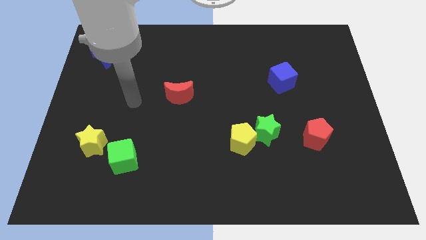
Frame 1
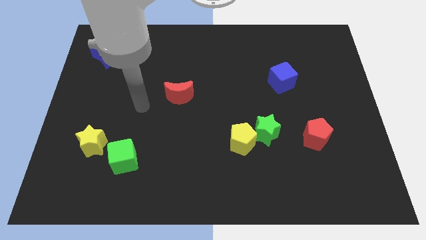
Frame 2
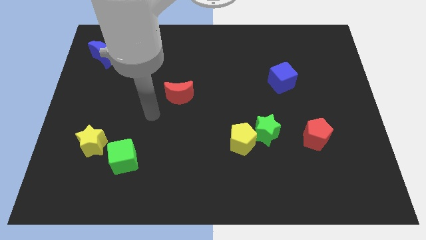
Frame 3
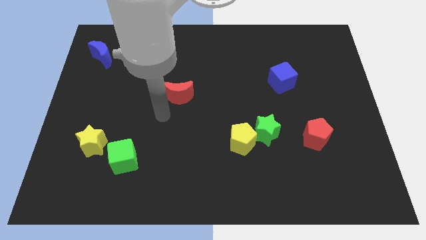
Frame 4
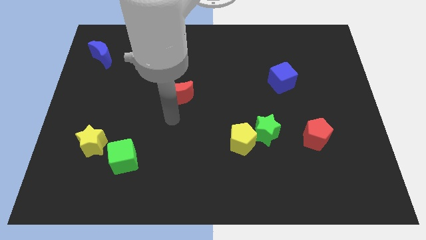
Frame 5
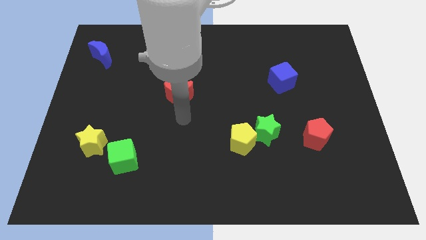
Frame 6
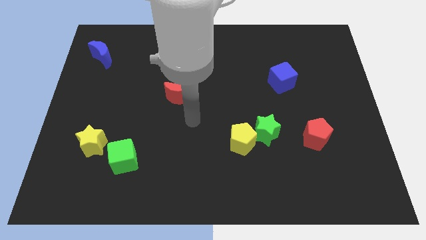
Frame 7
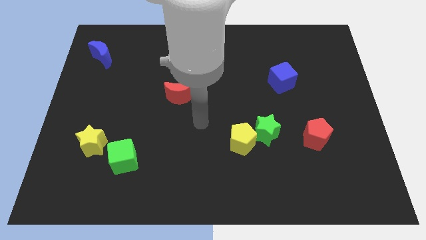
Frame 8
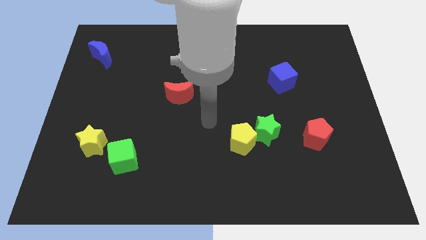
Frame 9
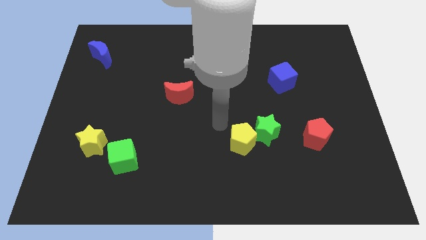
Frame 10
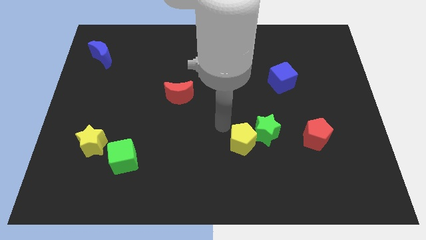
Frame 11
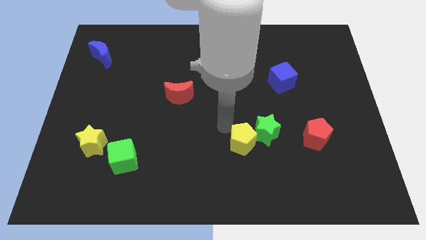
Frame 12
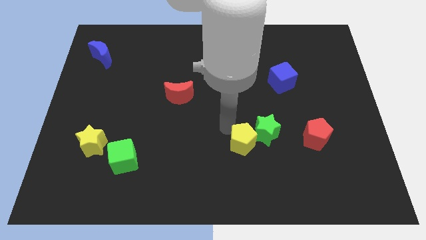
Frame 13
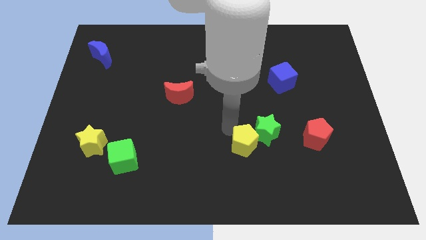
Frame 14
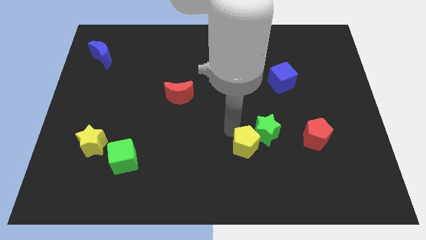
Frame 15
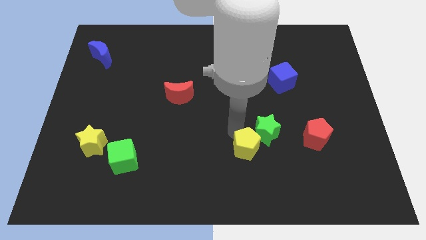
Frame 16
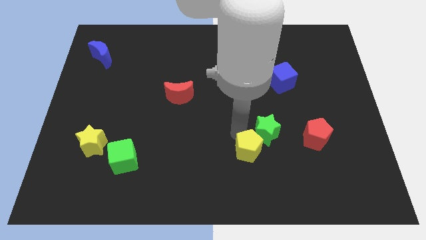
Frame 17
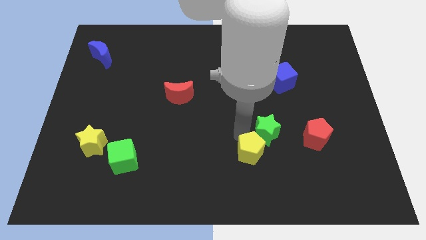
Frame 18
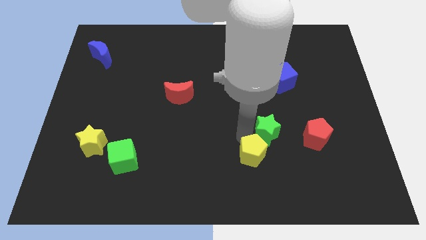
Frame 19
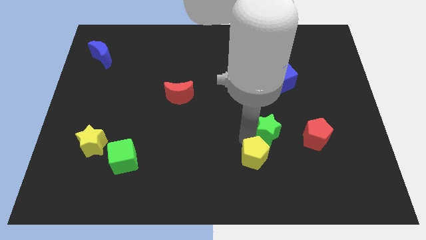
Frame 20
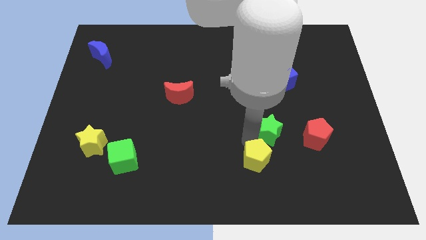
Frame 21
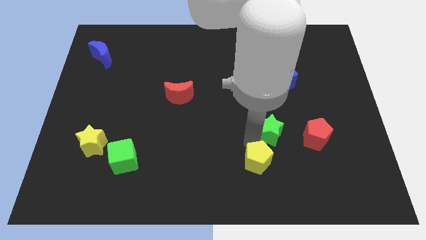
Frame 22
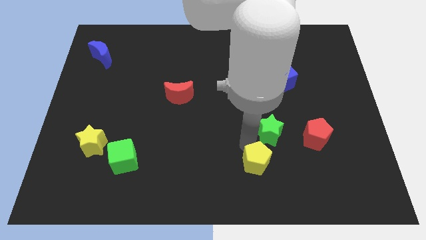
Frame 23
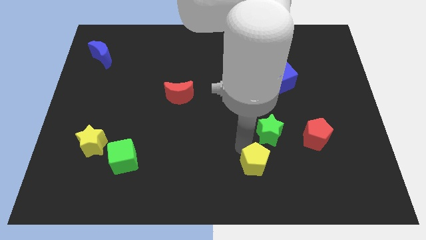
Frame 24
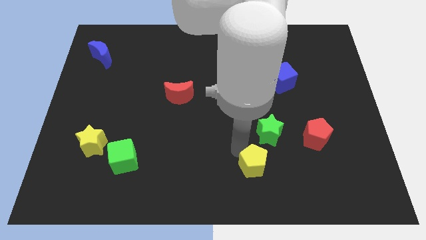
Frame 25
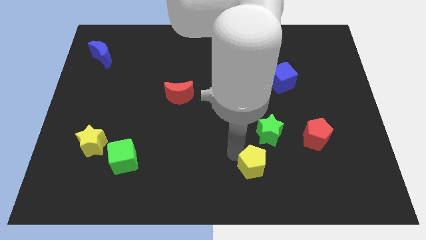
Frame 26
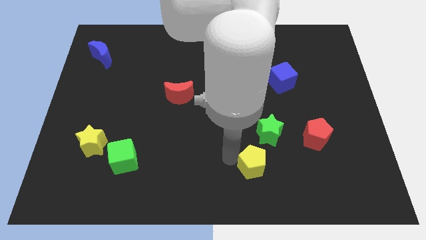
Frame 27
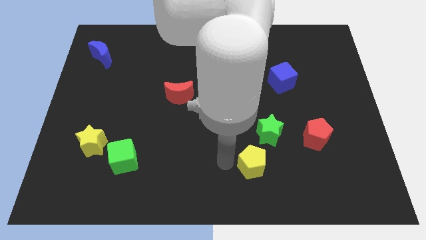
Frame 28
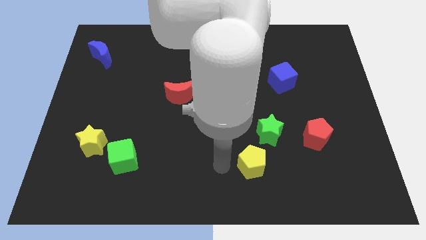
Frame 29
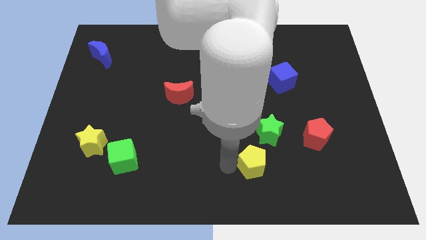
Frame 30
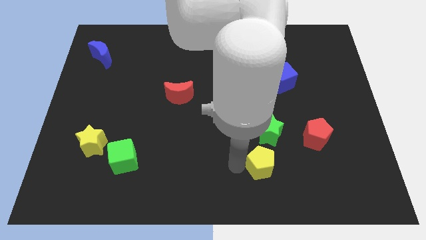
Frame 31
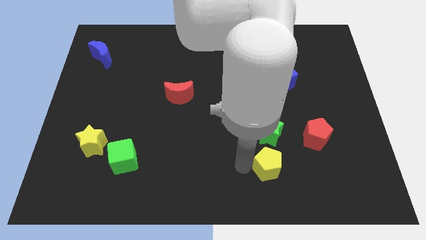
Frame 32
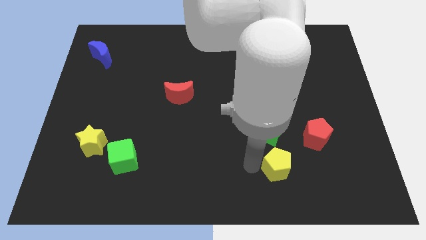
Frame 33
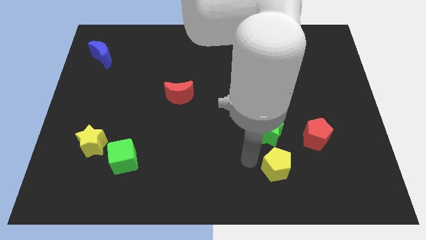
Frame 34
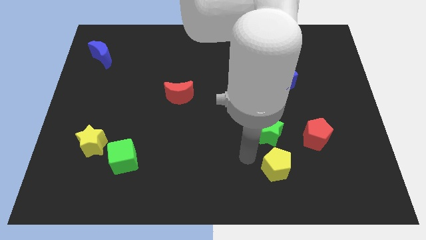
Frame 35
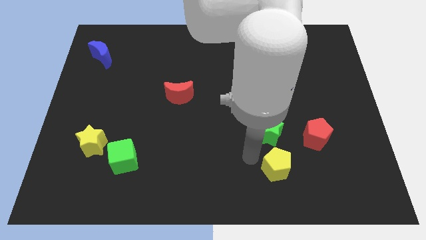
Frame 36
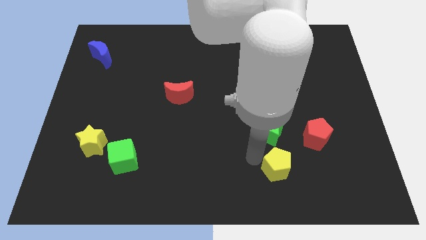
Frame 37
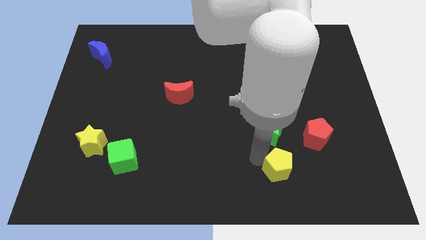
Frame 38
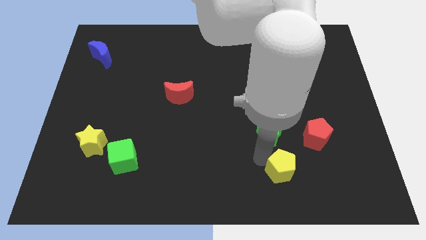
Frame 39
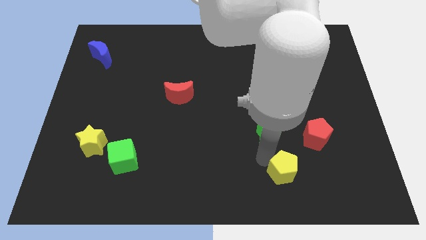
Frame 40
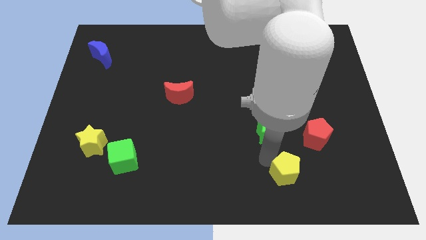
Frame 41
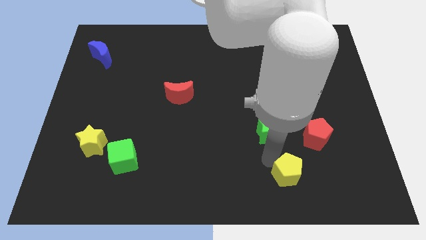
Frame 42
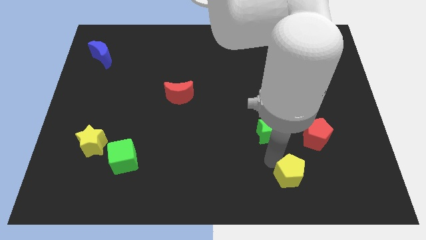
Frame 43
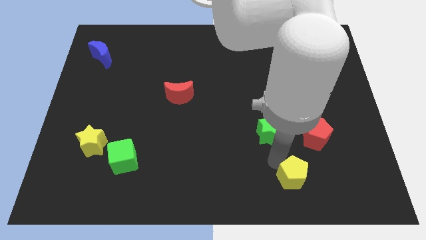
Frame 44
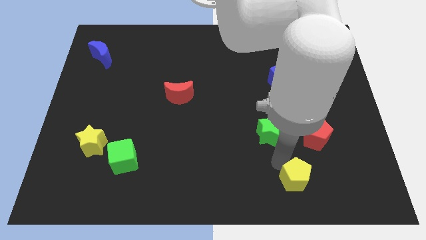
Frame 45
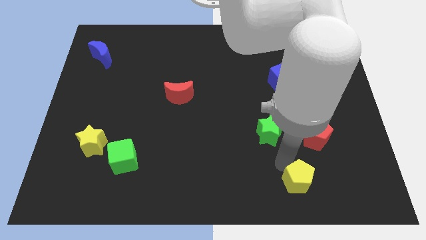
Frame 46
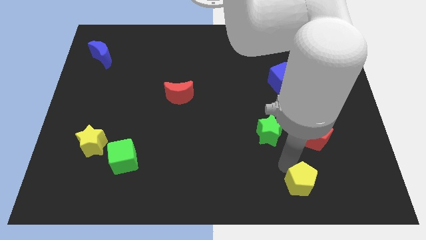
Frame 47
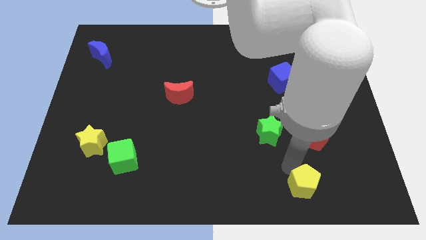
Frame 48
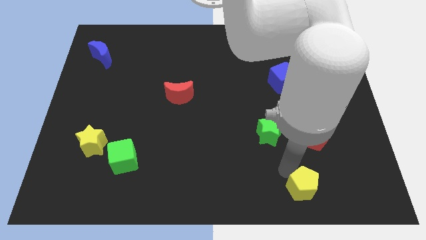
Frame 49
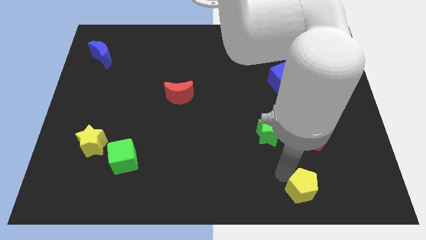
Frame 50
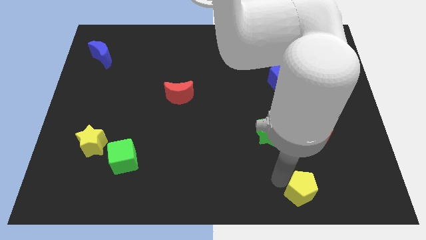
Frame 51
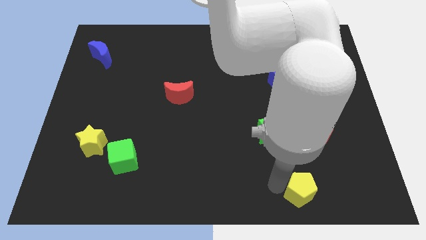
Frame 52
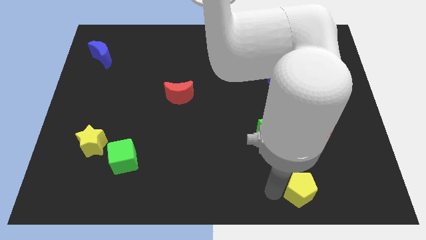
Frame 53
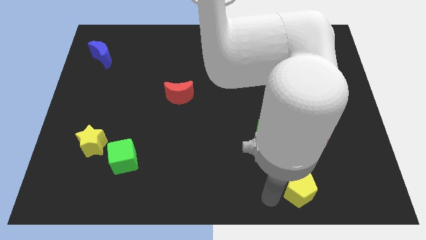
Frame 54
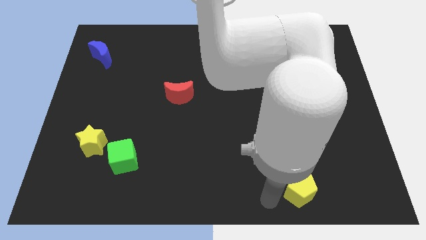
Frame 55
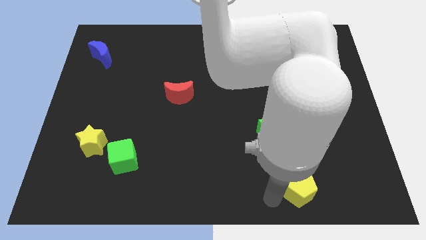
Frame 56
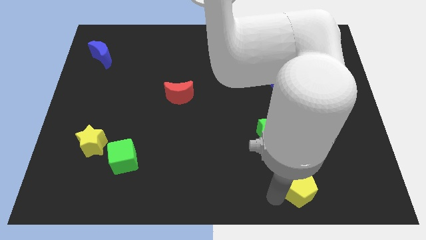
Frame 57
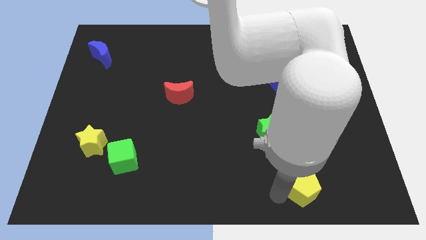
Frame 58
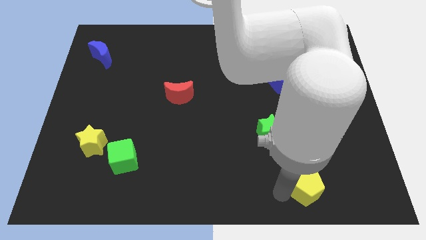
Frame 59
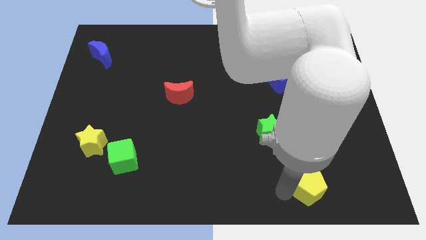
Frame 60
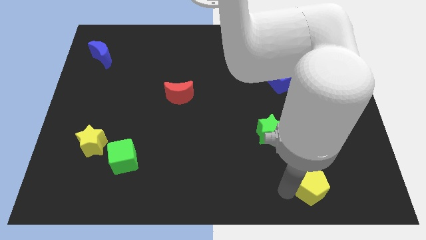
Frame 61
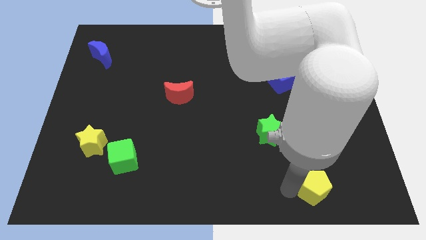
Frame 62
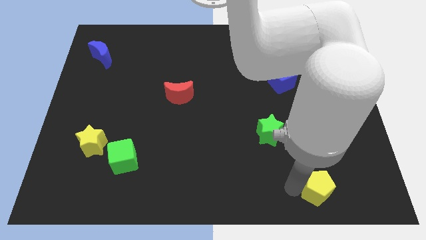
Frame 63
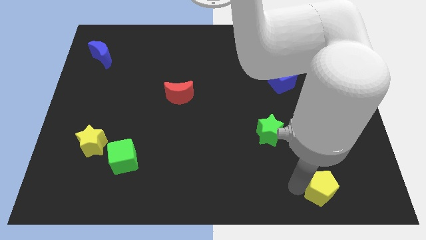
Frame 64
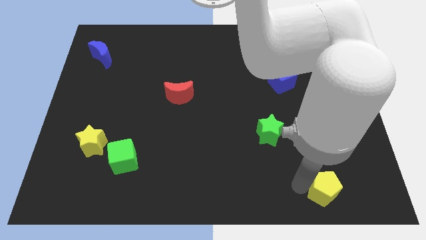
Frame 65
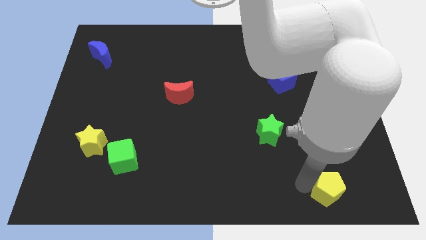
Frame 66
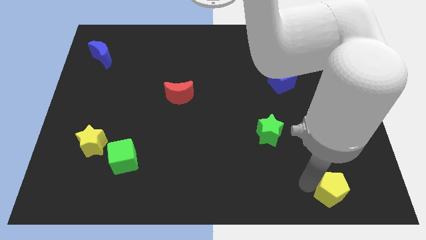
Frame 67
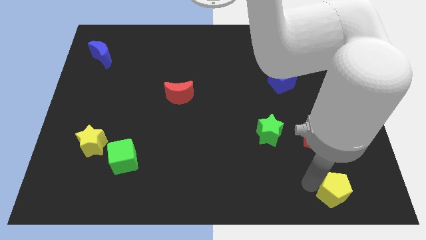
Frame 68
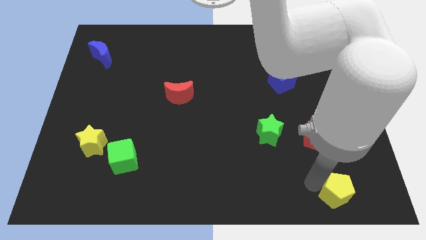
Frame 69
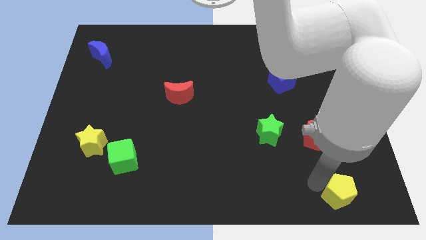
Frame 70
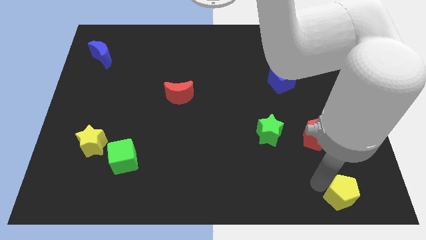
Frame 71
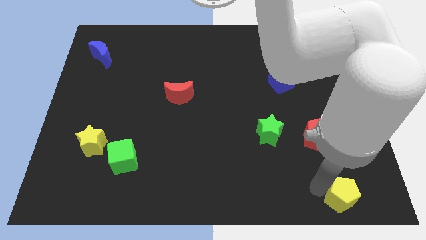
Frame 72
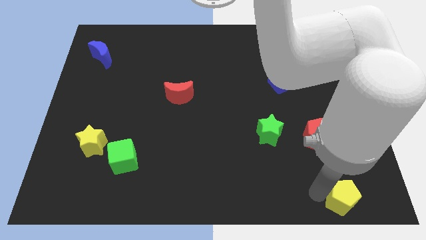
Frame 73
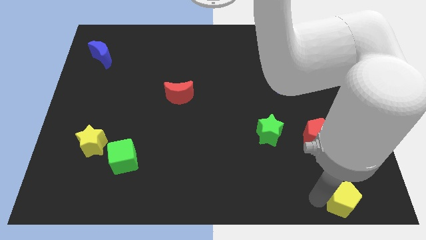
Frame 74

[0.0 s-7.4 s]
move the yellow pentagon to the bottom right
